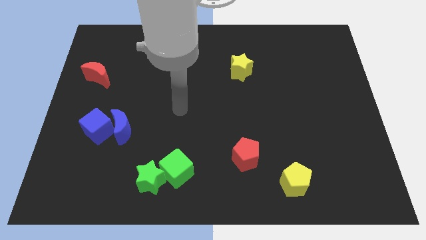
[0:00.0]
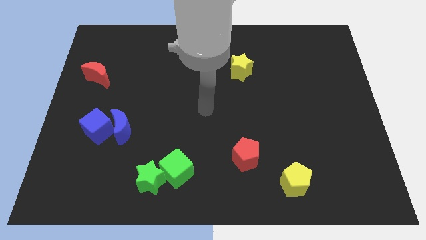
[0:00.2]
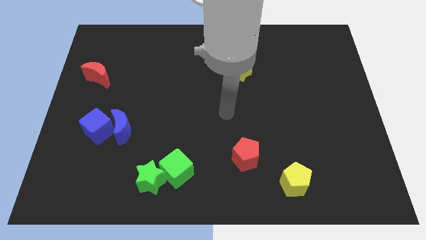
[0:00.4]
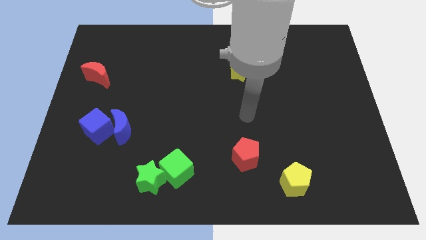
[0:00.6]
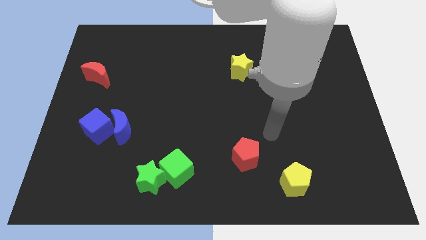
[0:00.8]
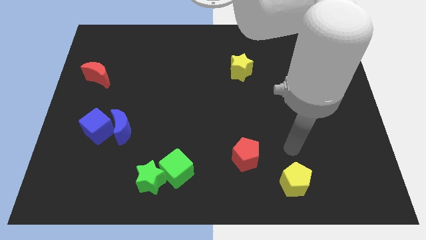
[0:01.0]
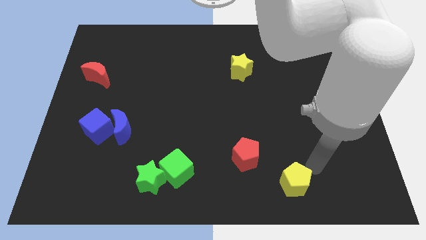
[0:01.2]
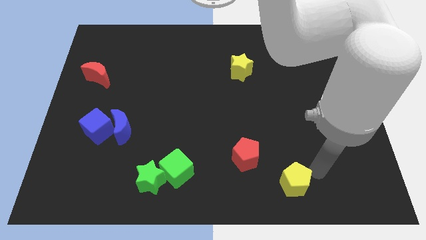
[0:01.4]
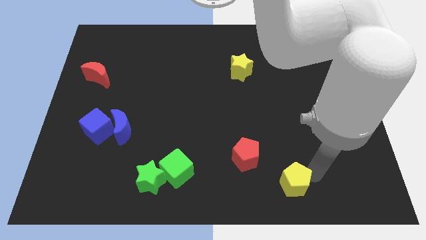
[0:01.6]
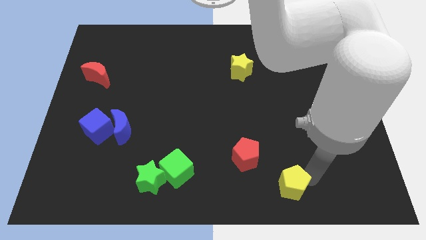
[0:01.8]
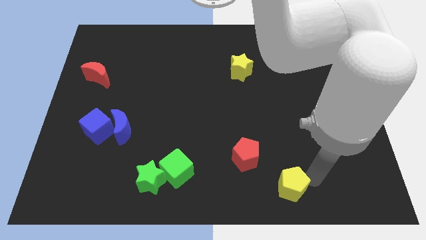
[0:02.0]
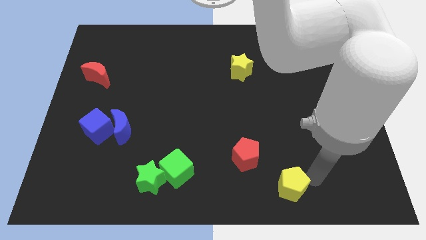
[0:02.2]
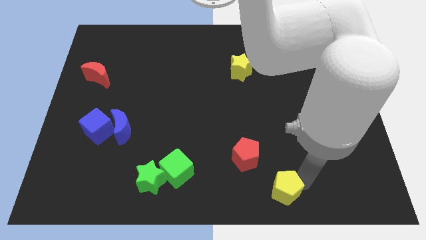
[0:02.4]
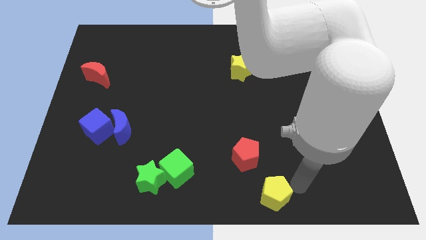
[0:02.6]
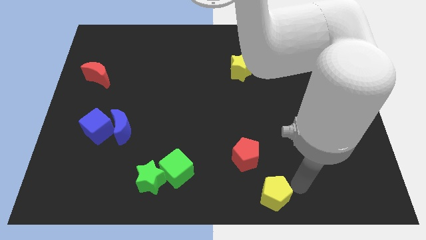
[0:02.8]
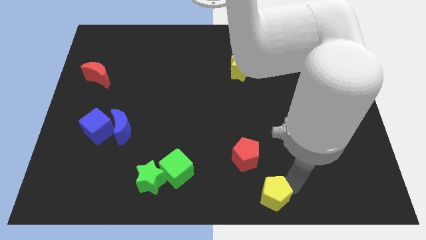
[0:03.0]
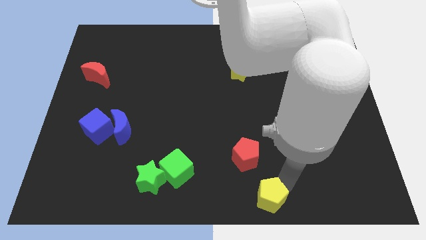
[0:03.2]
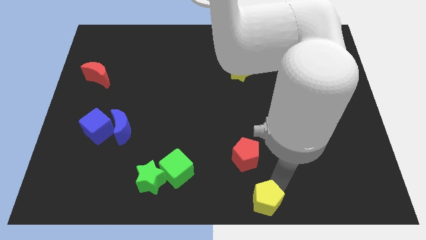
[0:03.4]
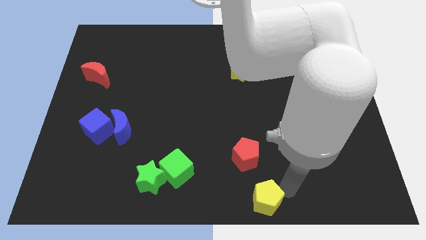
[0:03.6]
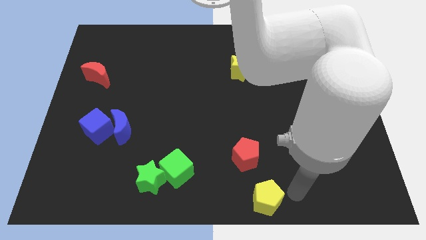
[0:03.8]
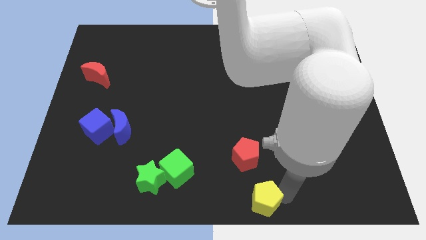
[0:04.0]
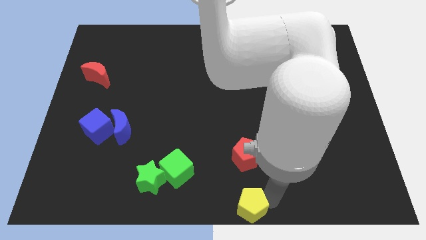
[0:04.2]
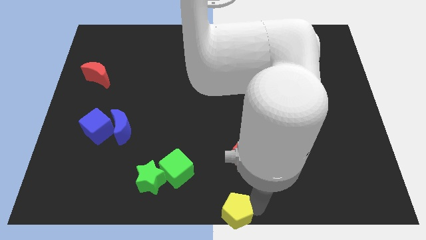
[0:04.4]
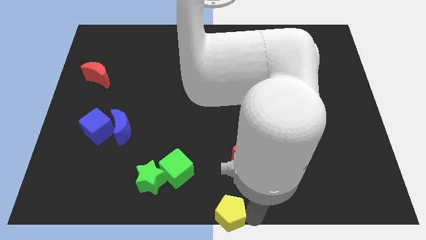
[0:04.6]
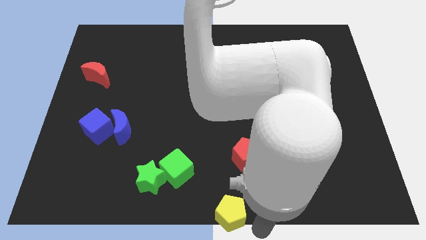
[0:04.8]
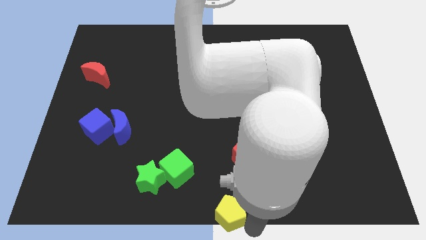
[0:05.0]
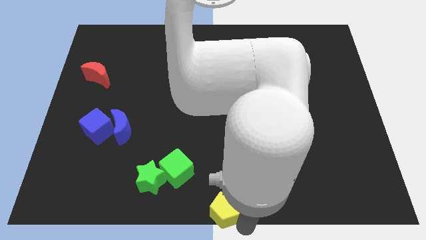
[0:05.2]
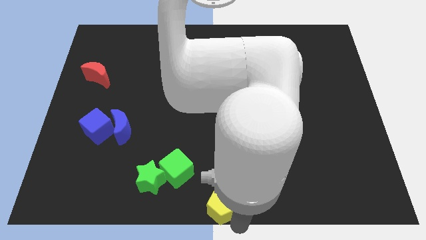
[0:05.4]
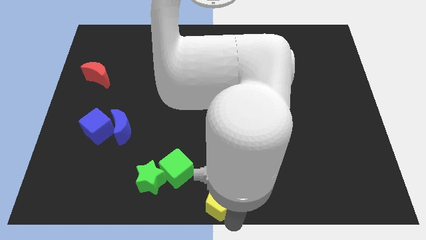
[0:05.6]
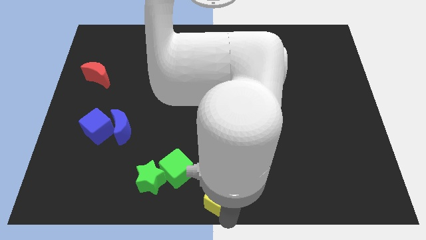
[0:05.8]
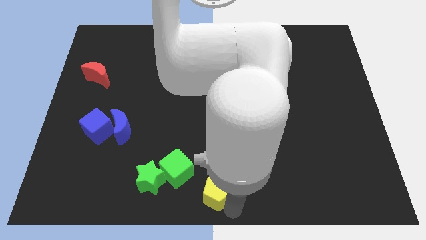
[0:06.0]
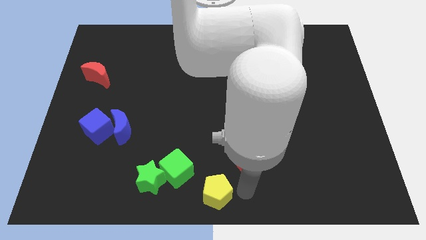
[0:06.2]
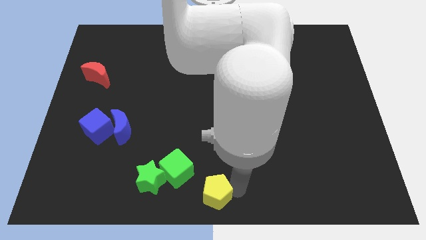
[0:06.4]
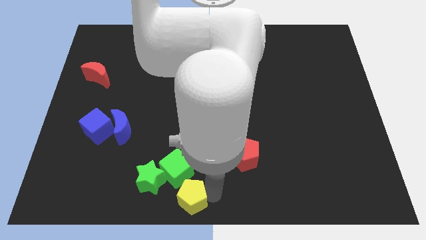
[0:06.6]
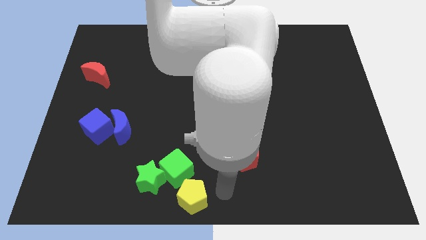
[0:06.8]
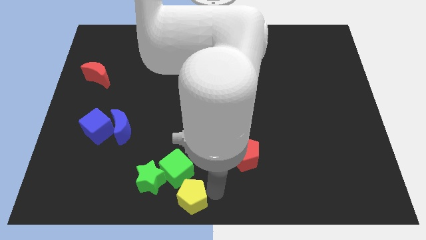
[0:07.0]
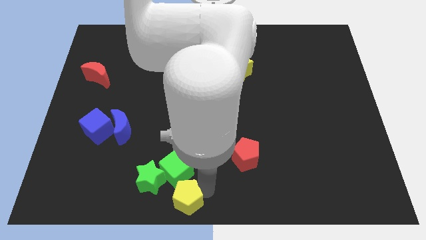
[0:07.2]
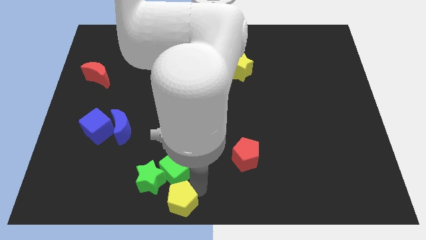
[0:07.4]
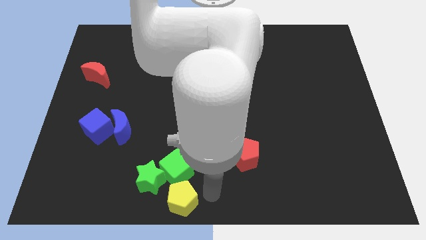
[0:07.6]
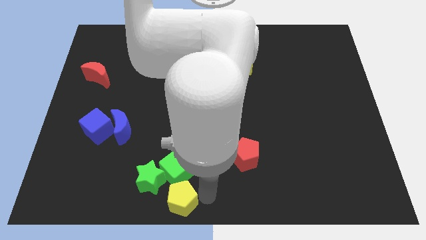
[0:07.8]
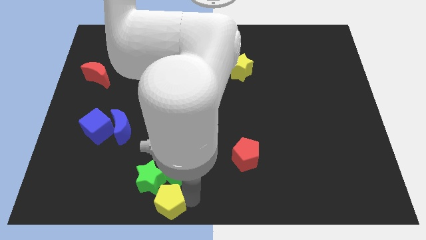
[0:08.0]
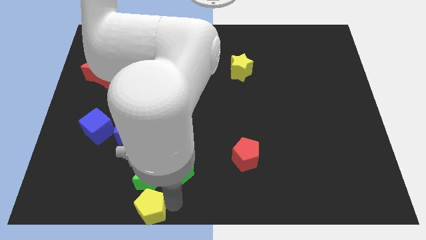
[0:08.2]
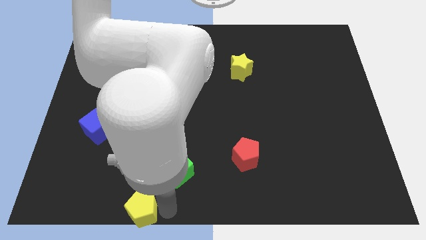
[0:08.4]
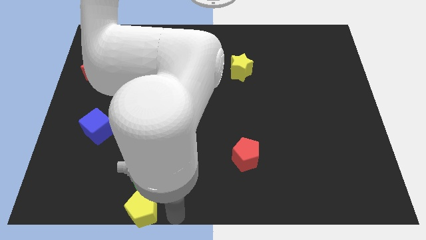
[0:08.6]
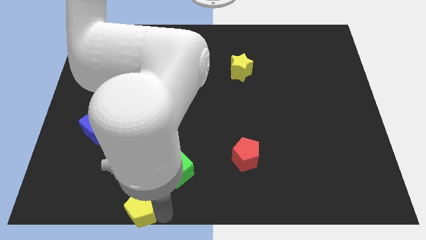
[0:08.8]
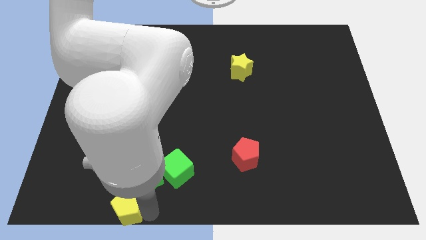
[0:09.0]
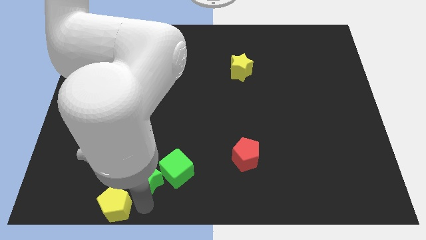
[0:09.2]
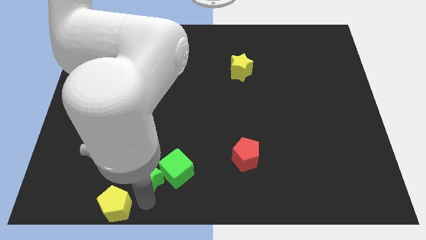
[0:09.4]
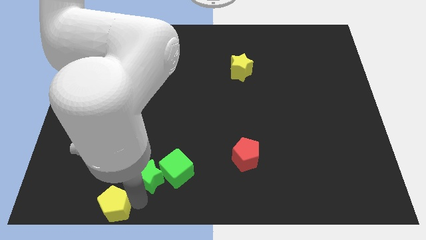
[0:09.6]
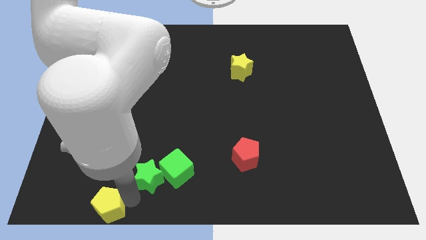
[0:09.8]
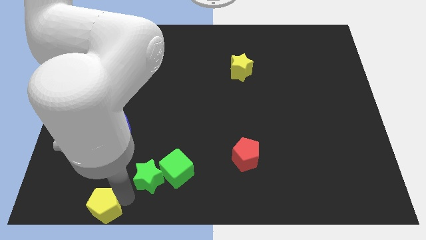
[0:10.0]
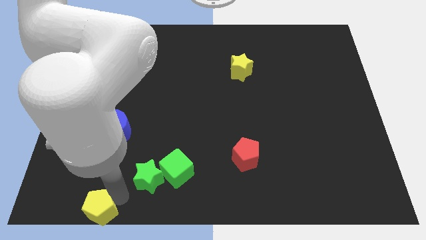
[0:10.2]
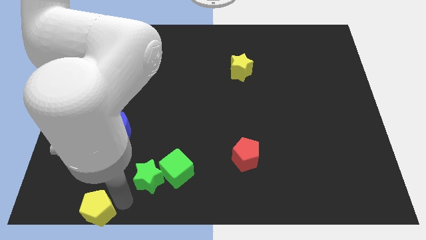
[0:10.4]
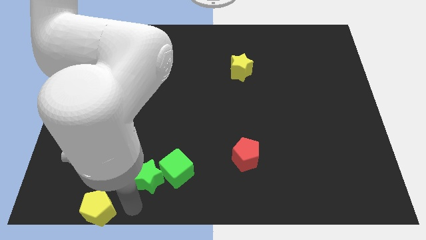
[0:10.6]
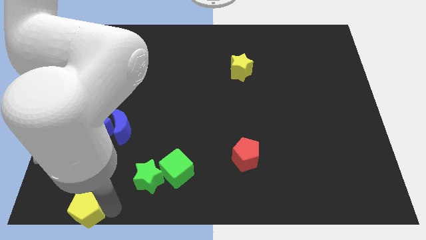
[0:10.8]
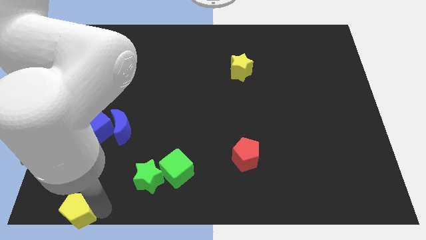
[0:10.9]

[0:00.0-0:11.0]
put the yellow pentagon to the bottom left of the board

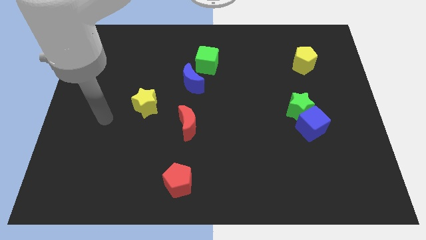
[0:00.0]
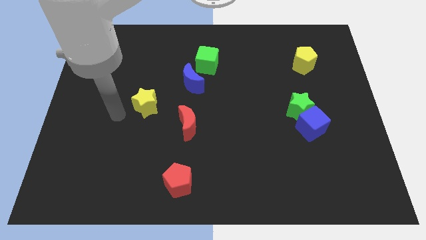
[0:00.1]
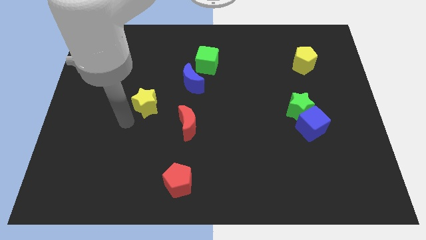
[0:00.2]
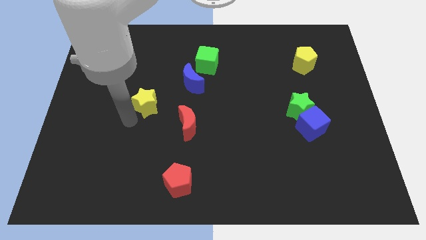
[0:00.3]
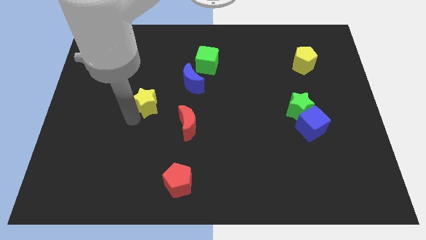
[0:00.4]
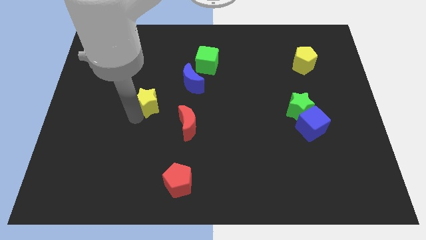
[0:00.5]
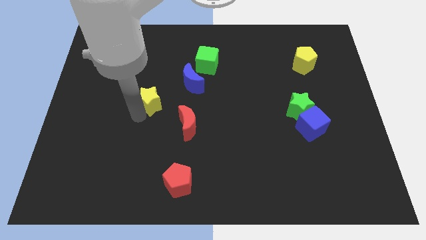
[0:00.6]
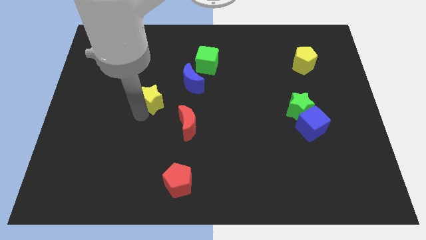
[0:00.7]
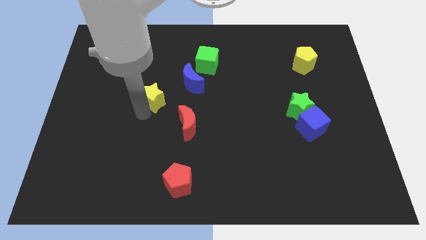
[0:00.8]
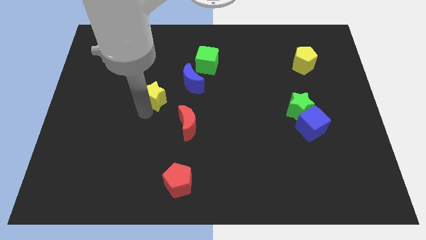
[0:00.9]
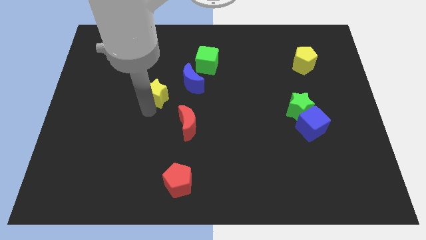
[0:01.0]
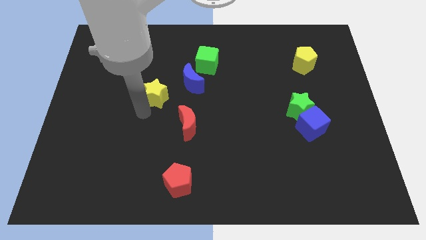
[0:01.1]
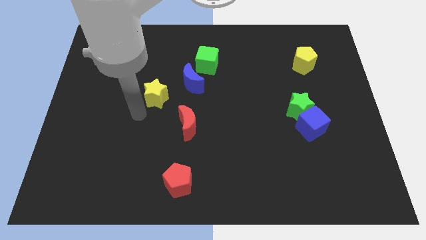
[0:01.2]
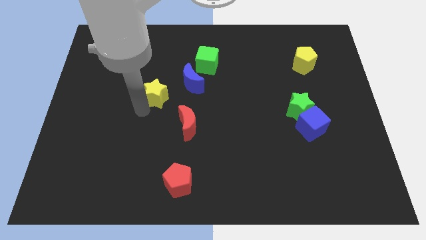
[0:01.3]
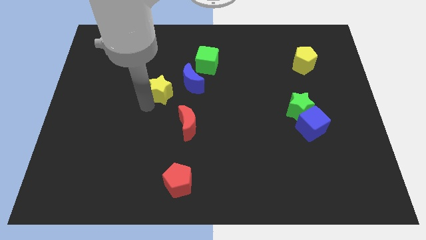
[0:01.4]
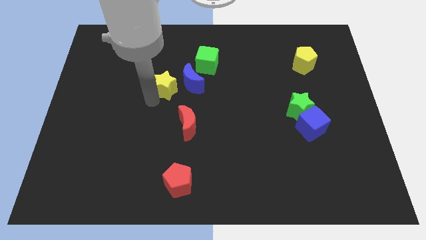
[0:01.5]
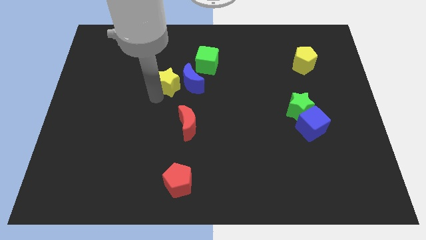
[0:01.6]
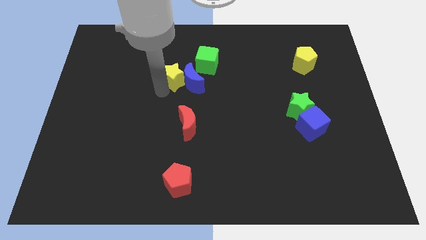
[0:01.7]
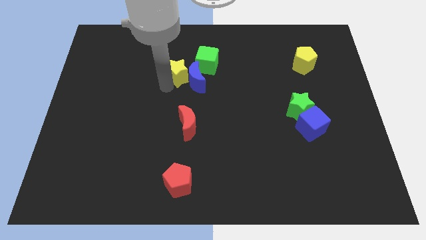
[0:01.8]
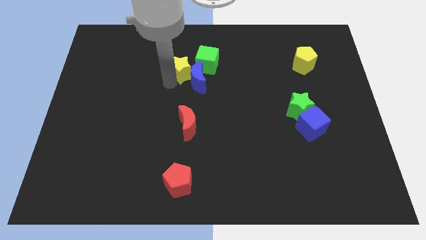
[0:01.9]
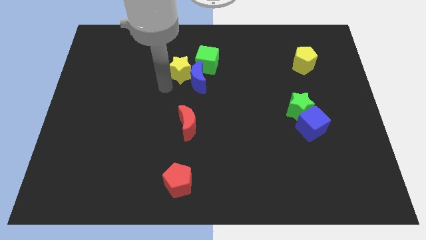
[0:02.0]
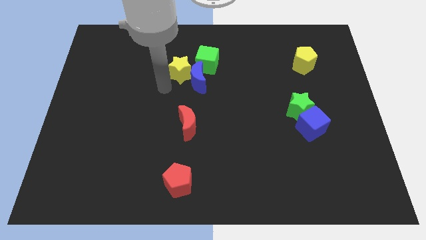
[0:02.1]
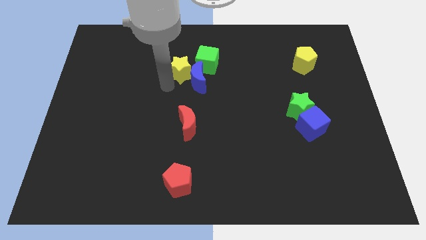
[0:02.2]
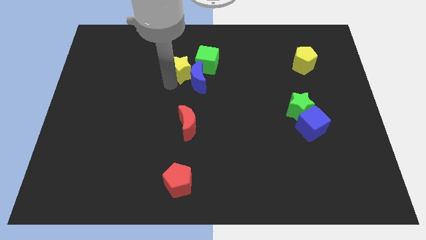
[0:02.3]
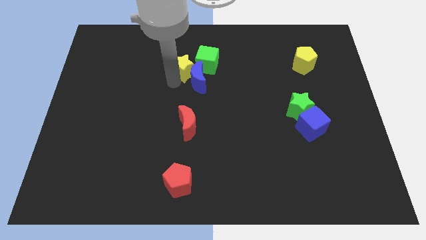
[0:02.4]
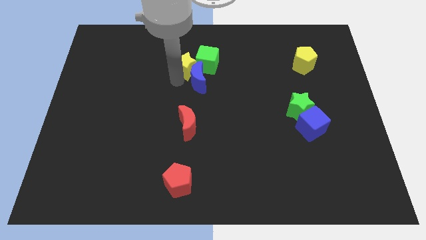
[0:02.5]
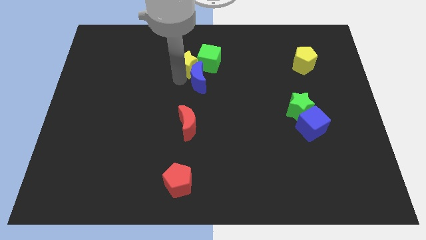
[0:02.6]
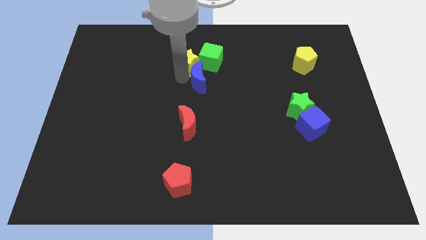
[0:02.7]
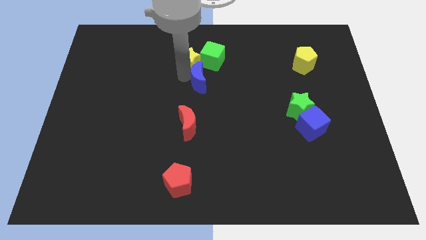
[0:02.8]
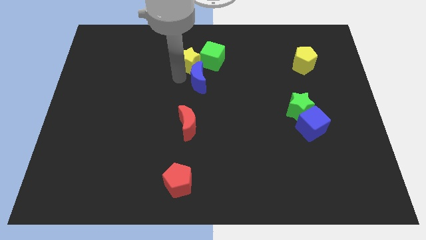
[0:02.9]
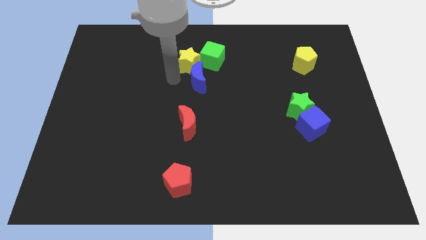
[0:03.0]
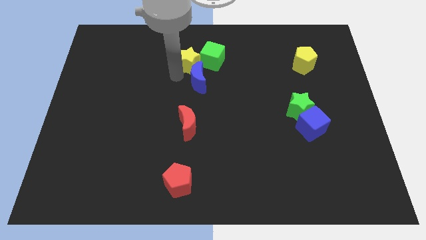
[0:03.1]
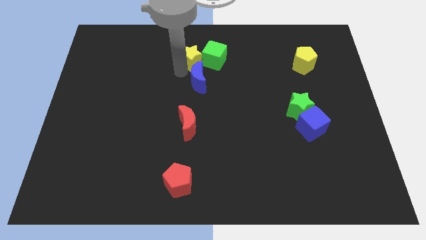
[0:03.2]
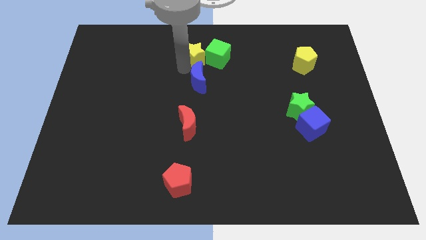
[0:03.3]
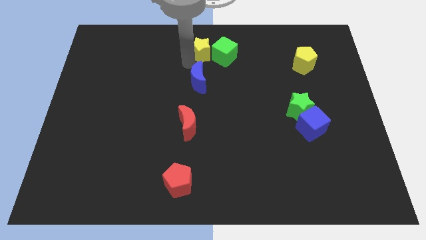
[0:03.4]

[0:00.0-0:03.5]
put the yellow star to the towards your base
